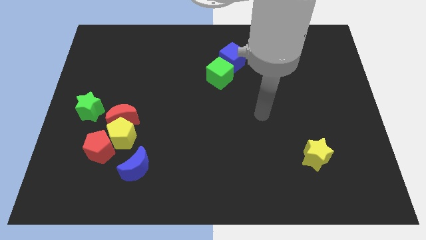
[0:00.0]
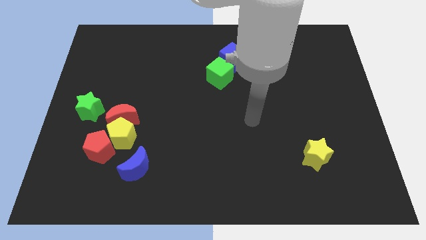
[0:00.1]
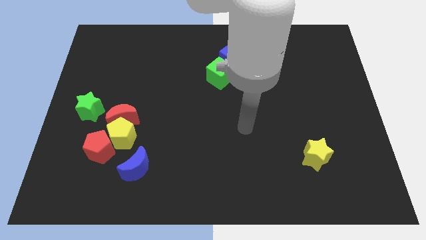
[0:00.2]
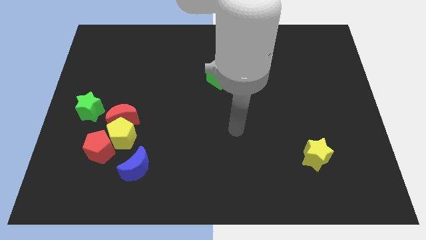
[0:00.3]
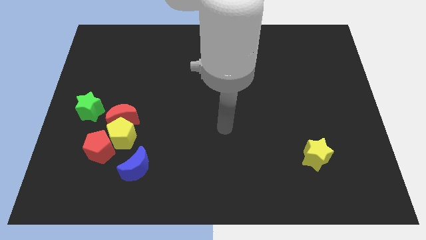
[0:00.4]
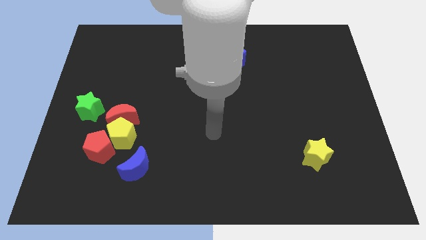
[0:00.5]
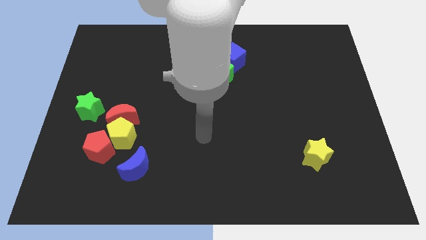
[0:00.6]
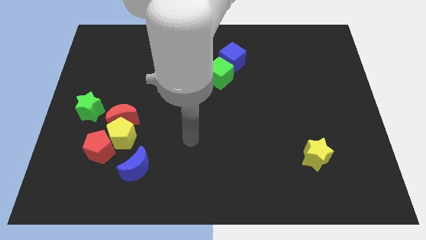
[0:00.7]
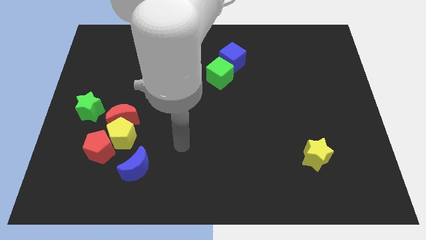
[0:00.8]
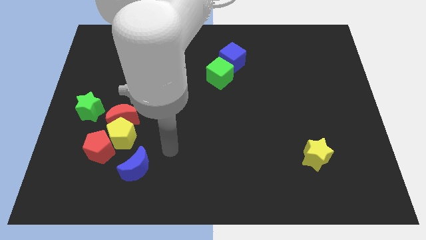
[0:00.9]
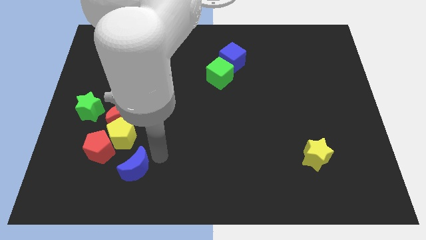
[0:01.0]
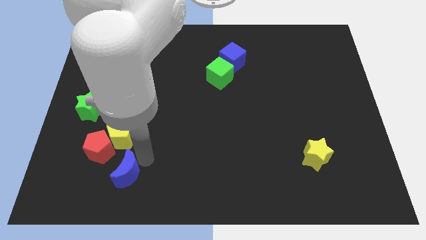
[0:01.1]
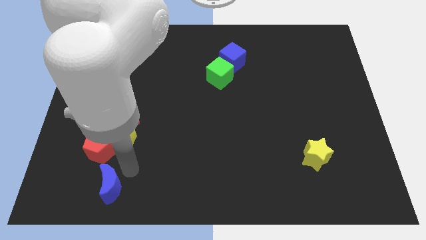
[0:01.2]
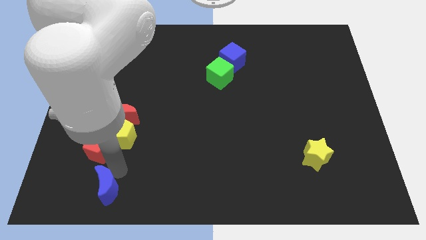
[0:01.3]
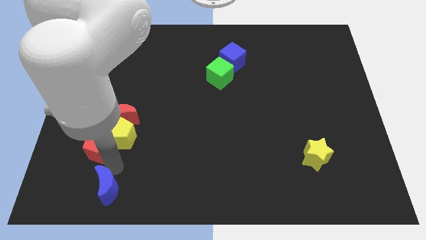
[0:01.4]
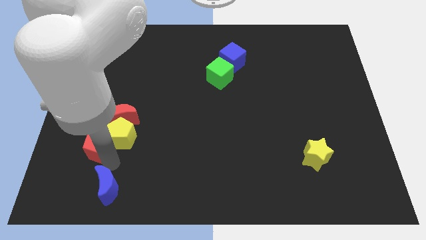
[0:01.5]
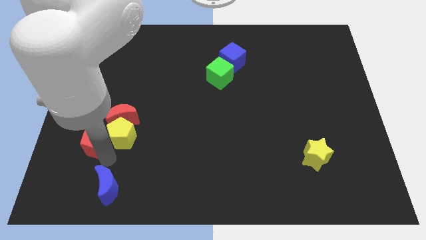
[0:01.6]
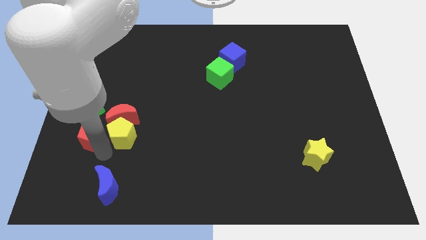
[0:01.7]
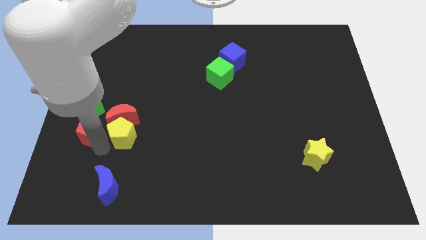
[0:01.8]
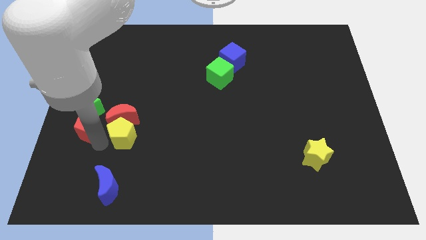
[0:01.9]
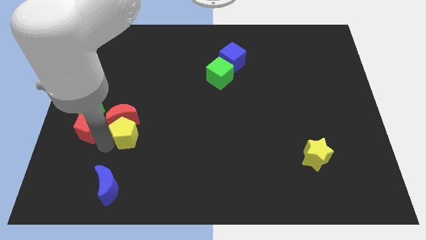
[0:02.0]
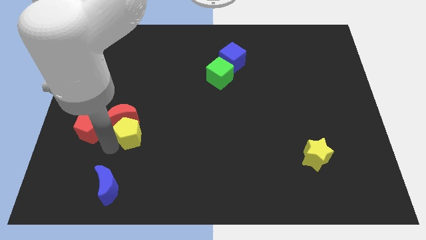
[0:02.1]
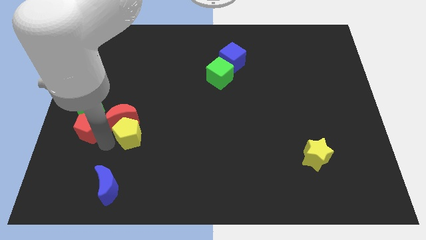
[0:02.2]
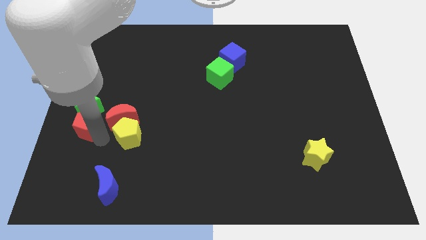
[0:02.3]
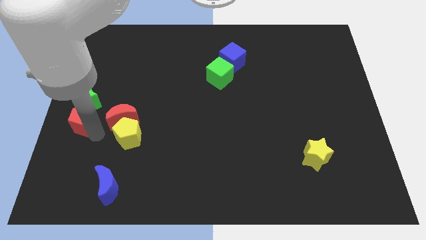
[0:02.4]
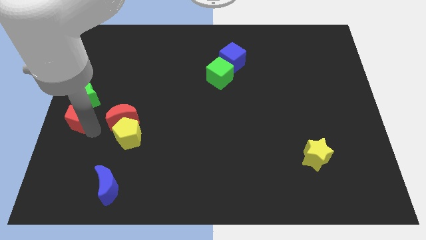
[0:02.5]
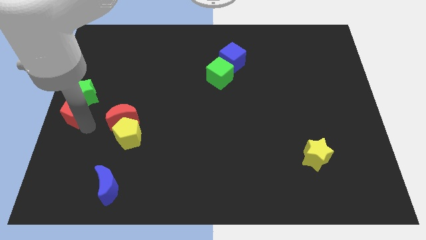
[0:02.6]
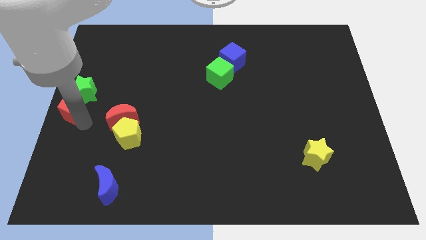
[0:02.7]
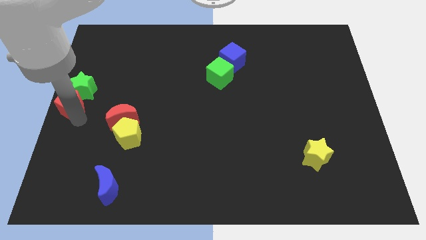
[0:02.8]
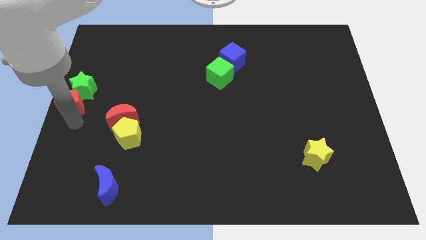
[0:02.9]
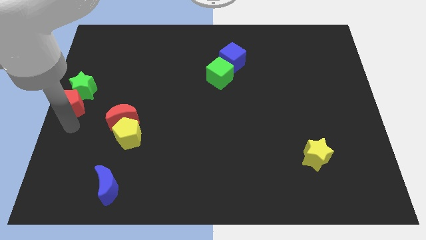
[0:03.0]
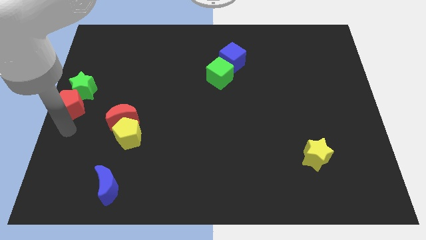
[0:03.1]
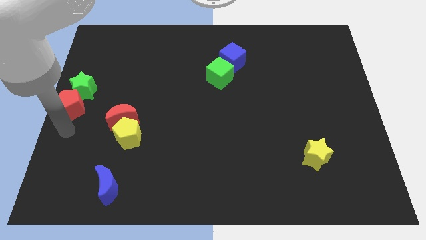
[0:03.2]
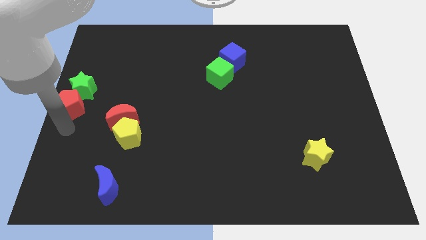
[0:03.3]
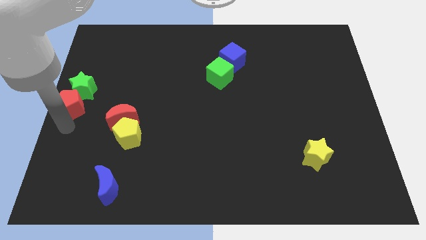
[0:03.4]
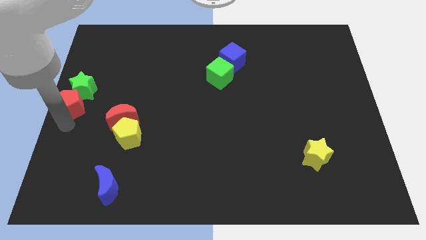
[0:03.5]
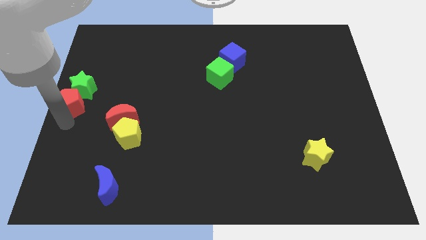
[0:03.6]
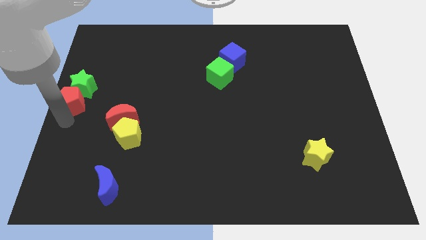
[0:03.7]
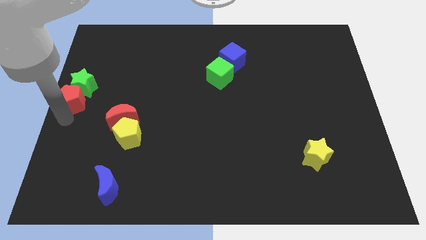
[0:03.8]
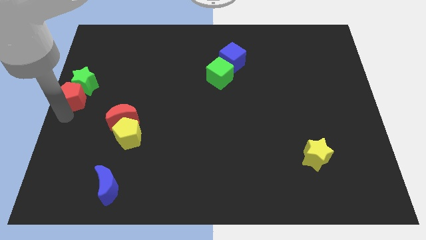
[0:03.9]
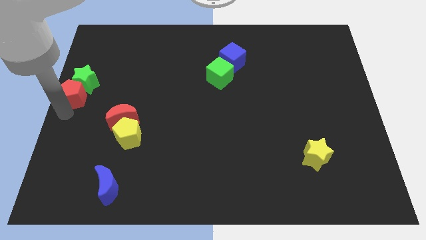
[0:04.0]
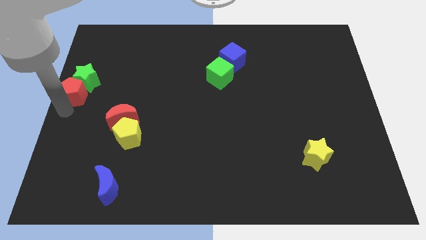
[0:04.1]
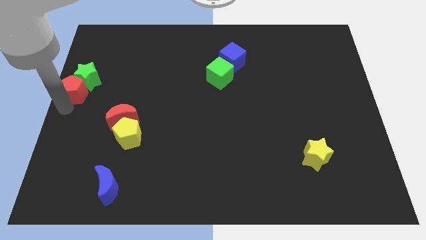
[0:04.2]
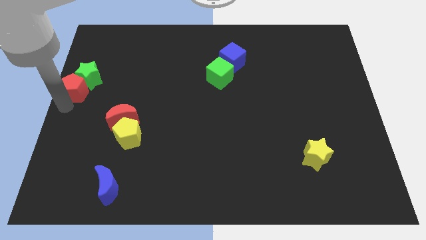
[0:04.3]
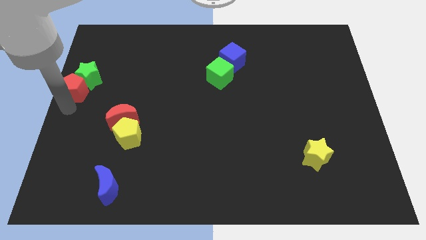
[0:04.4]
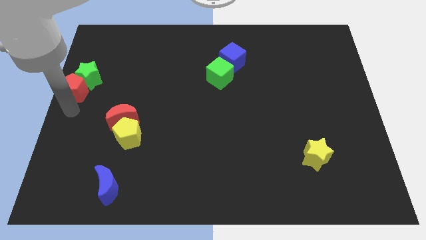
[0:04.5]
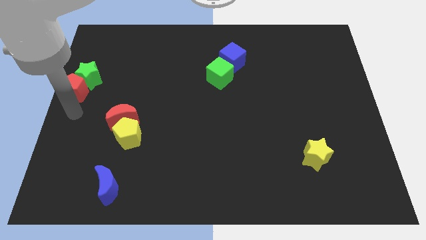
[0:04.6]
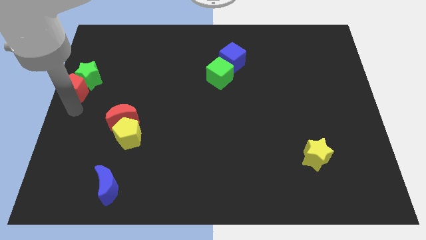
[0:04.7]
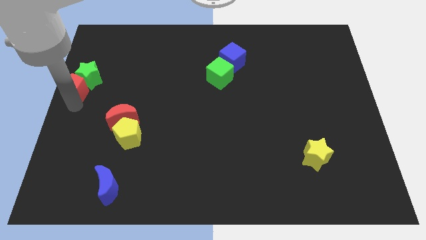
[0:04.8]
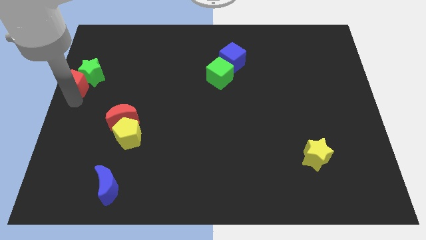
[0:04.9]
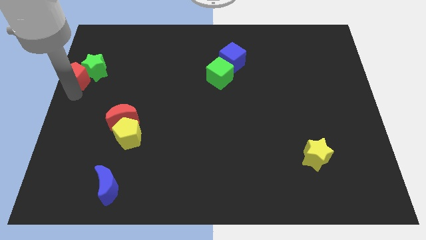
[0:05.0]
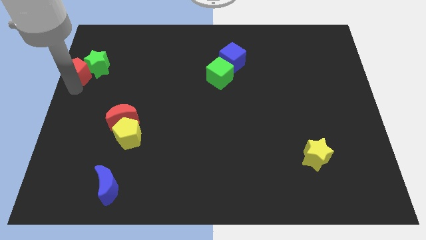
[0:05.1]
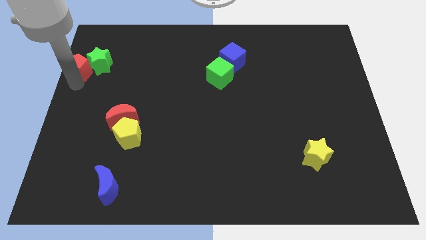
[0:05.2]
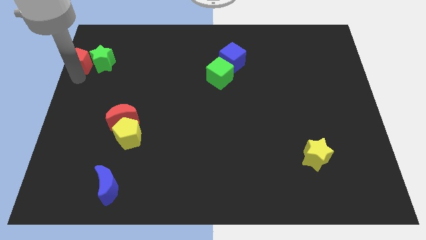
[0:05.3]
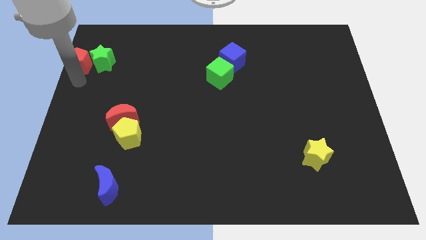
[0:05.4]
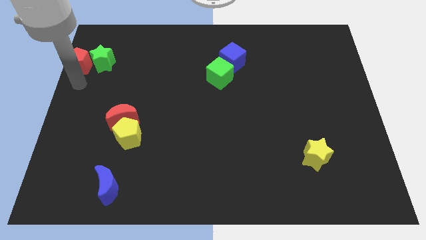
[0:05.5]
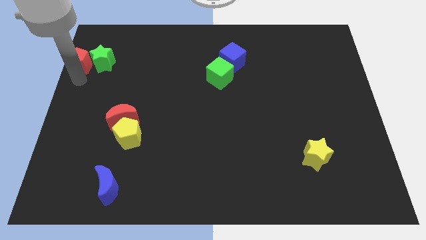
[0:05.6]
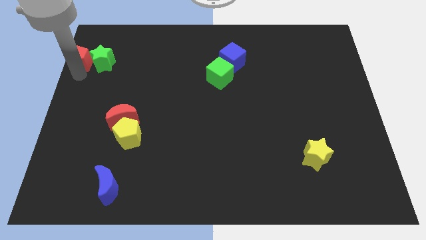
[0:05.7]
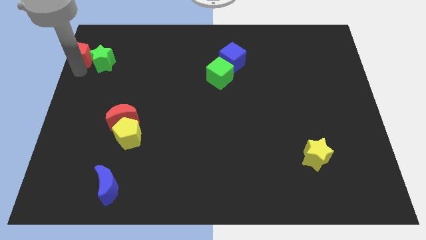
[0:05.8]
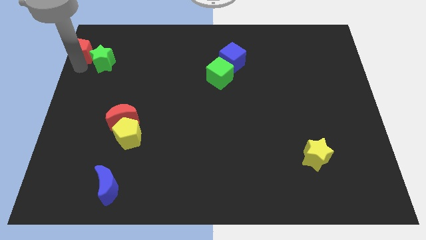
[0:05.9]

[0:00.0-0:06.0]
put the red pentagon to the top left corner

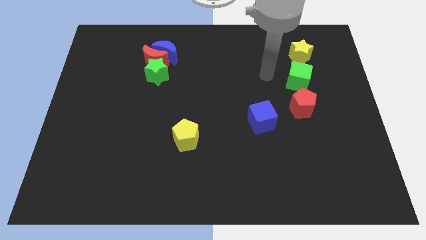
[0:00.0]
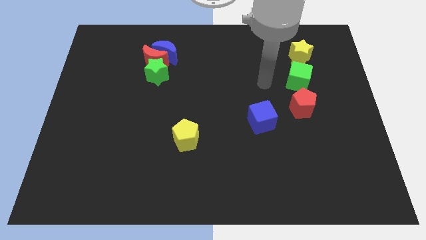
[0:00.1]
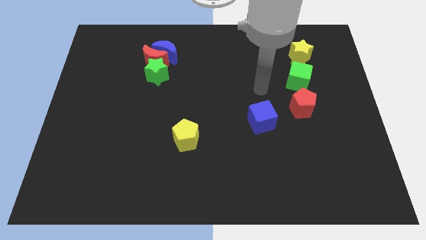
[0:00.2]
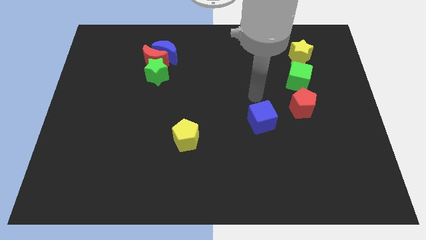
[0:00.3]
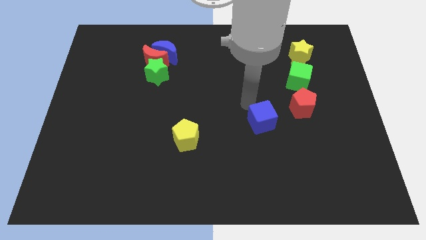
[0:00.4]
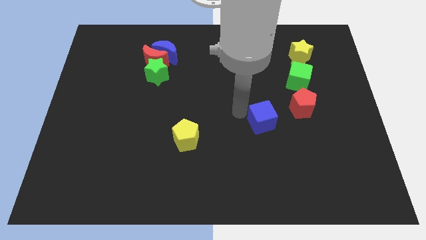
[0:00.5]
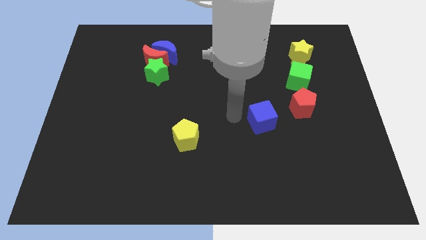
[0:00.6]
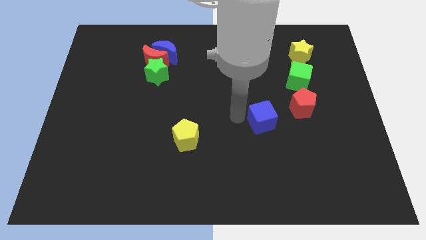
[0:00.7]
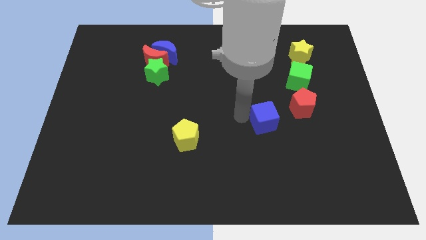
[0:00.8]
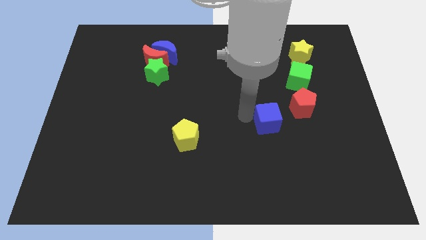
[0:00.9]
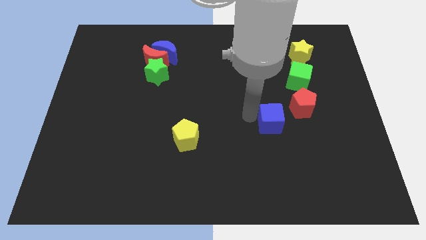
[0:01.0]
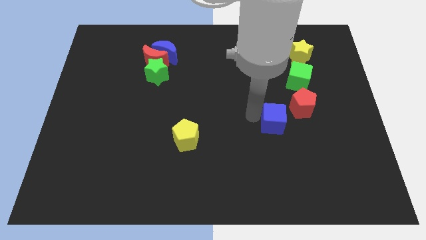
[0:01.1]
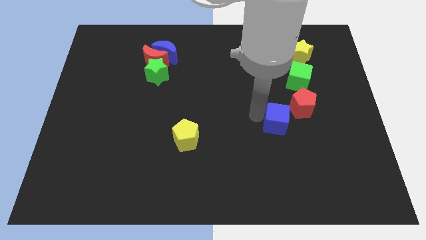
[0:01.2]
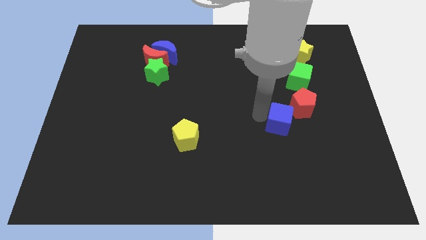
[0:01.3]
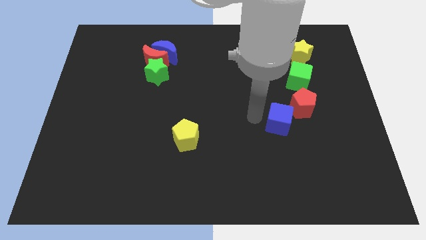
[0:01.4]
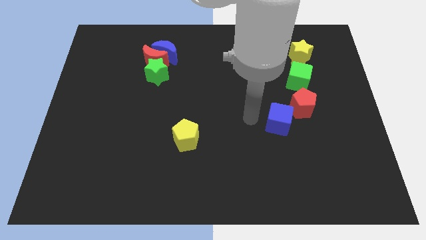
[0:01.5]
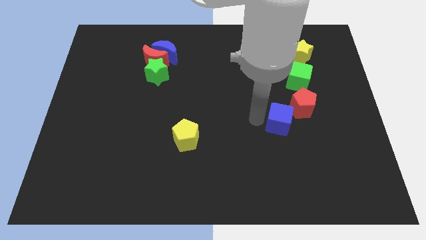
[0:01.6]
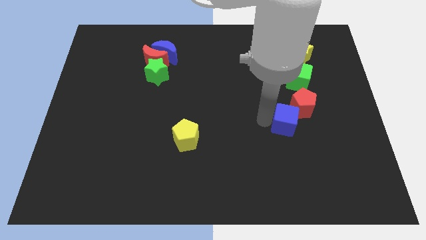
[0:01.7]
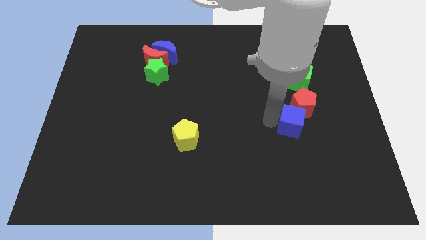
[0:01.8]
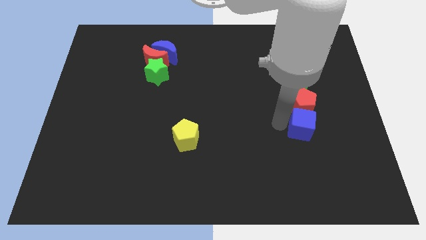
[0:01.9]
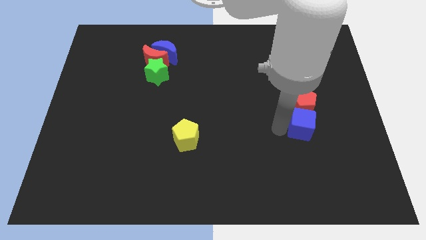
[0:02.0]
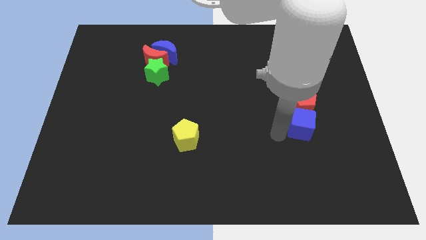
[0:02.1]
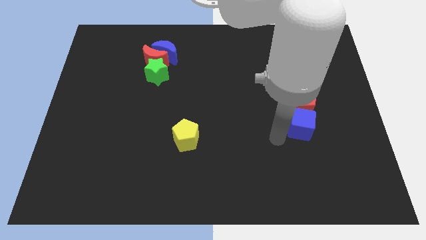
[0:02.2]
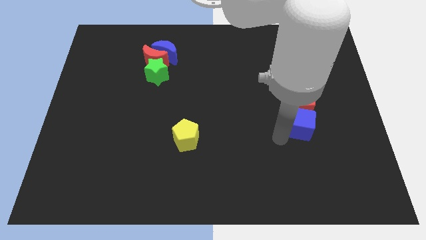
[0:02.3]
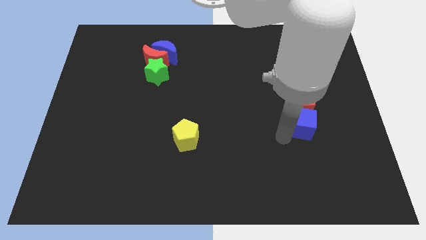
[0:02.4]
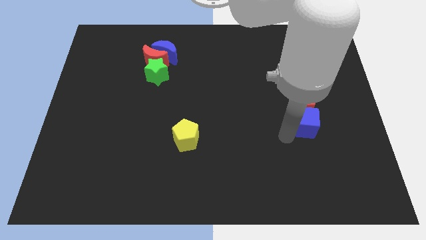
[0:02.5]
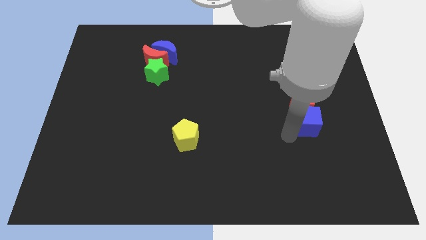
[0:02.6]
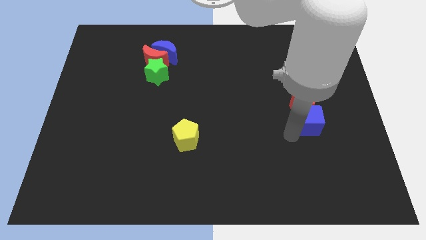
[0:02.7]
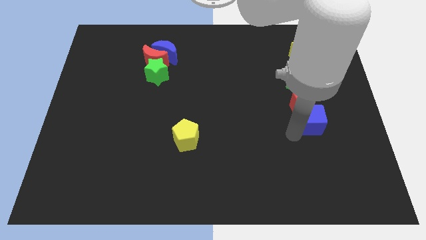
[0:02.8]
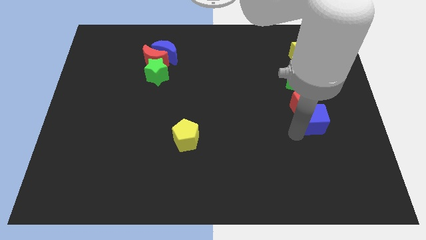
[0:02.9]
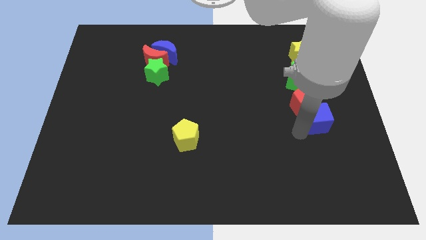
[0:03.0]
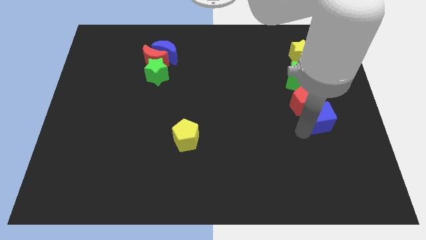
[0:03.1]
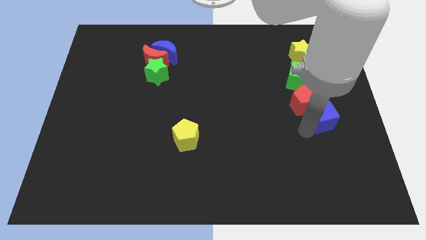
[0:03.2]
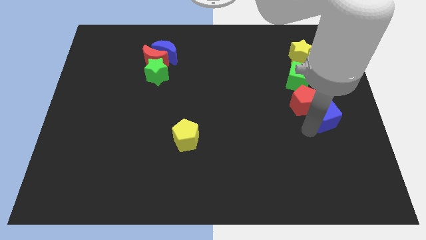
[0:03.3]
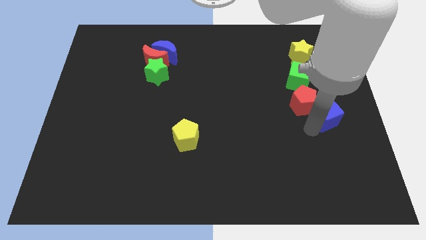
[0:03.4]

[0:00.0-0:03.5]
move the blue cube to the right side of the board
